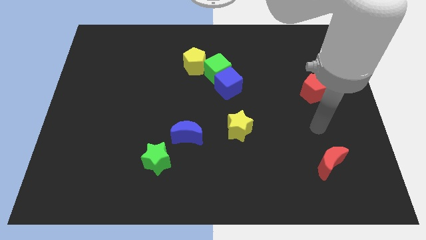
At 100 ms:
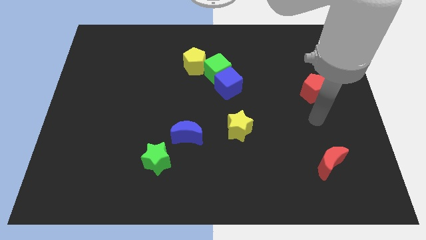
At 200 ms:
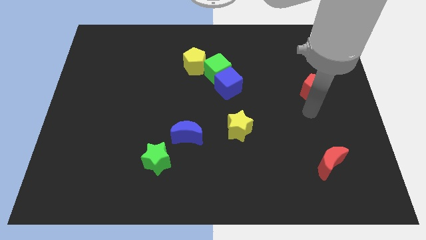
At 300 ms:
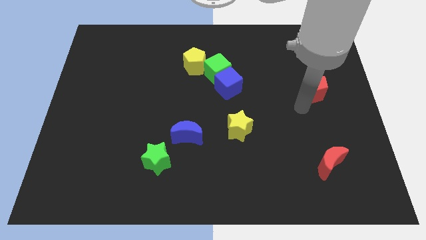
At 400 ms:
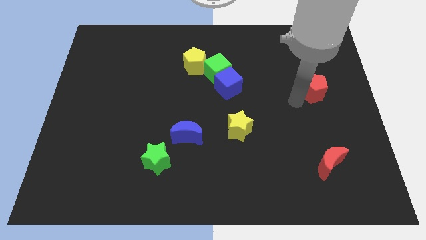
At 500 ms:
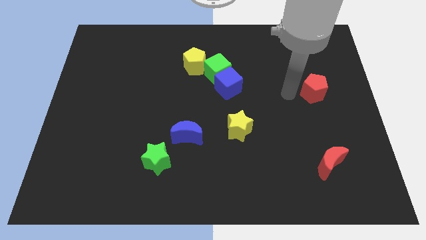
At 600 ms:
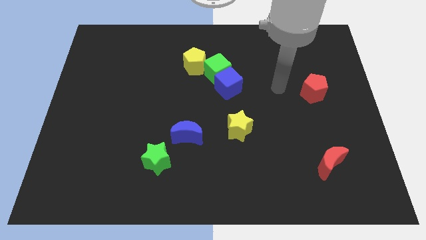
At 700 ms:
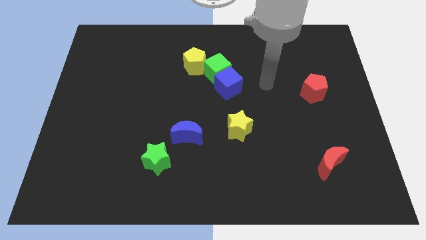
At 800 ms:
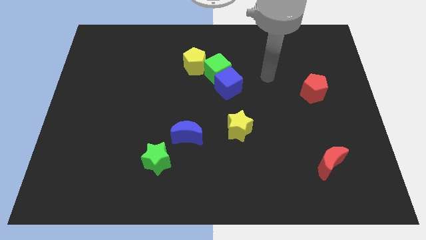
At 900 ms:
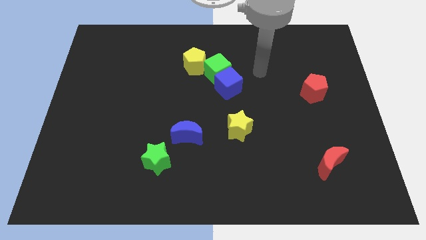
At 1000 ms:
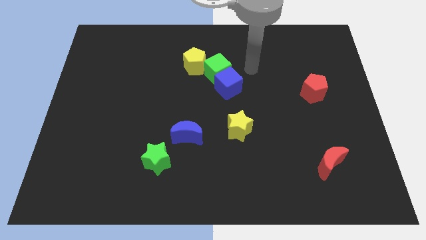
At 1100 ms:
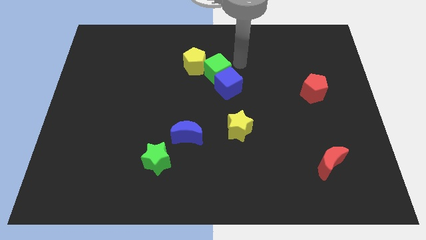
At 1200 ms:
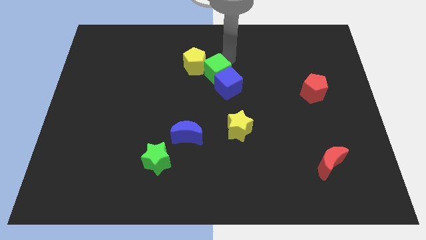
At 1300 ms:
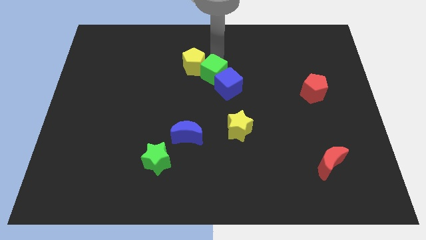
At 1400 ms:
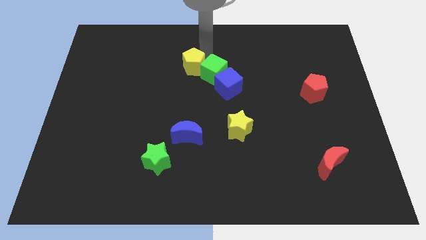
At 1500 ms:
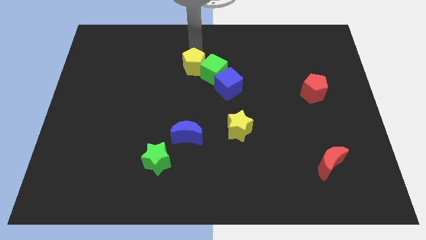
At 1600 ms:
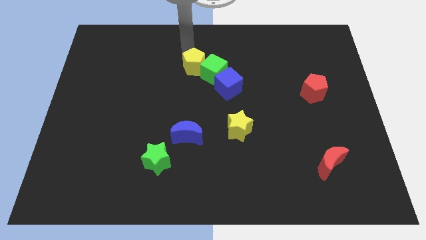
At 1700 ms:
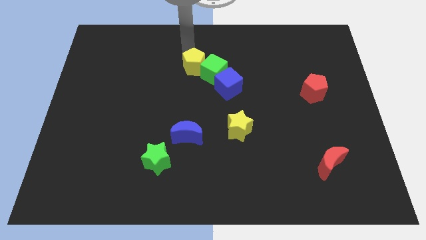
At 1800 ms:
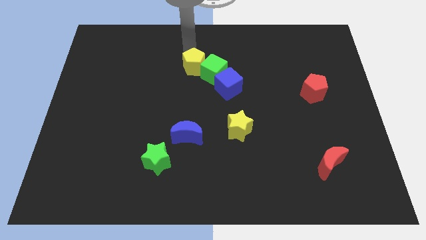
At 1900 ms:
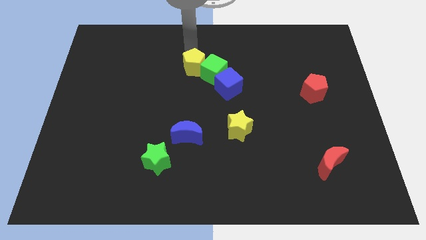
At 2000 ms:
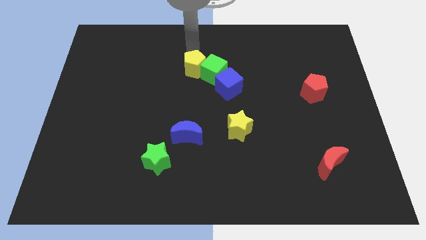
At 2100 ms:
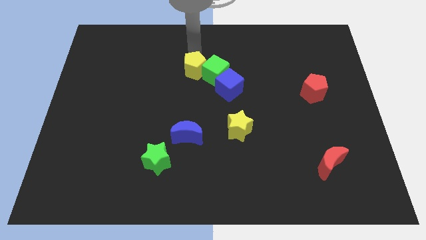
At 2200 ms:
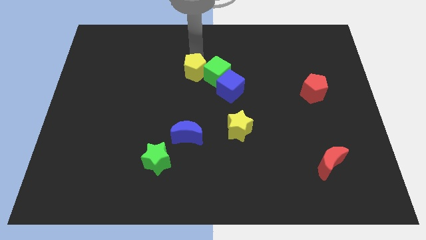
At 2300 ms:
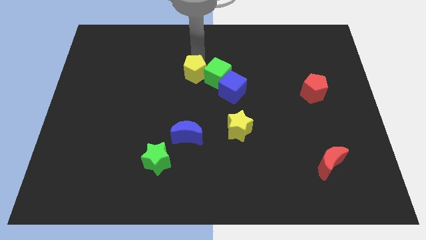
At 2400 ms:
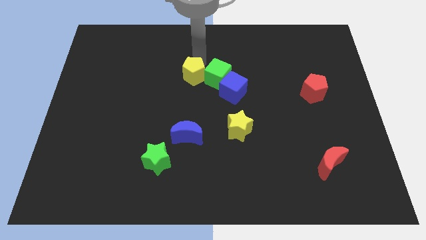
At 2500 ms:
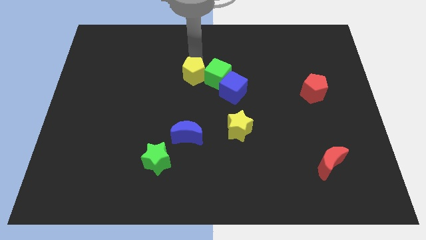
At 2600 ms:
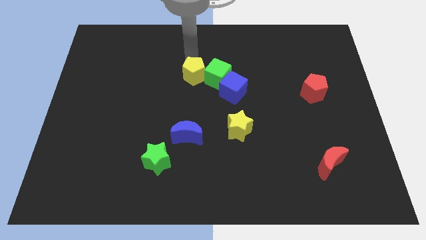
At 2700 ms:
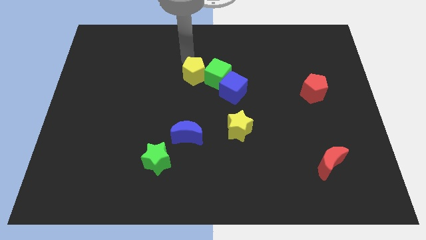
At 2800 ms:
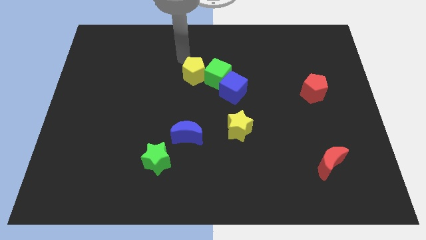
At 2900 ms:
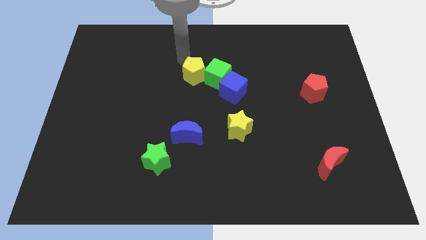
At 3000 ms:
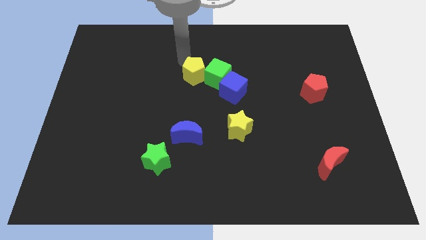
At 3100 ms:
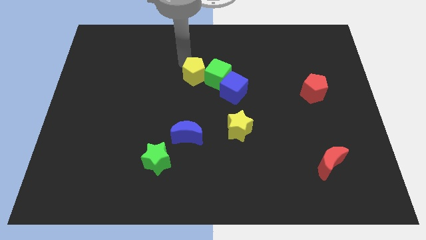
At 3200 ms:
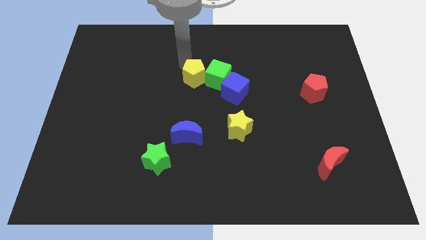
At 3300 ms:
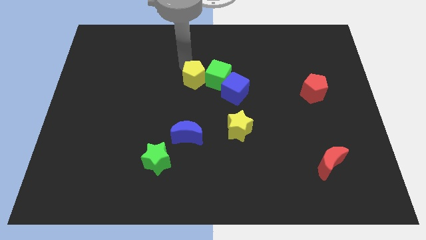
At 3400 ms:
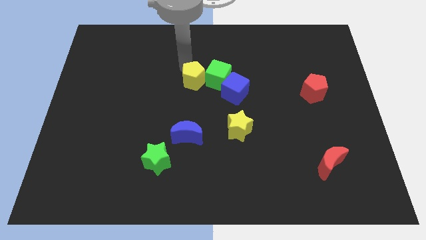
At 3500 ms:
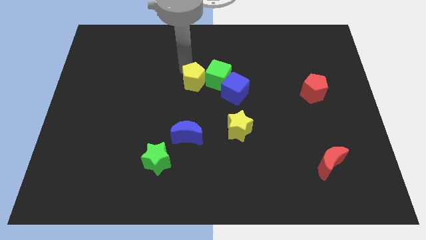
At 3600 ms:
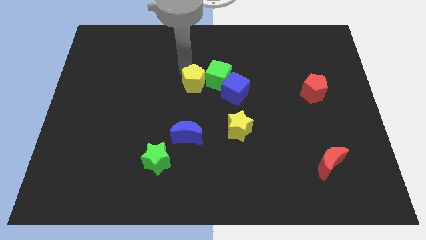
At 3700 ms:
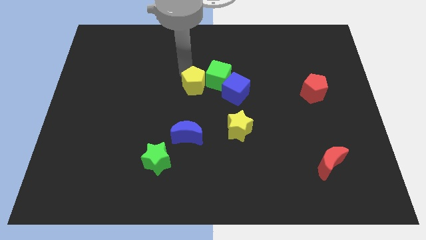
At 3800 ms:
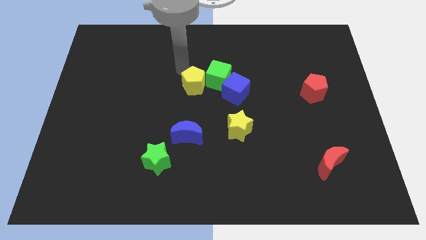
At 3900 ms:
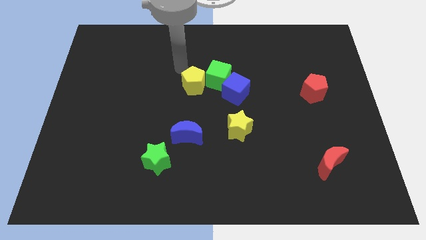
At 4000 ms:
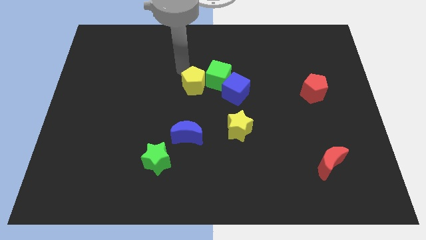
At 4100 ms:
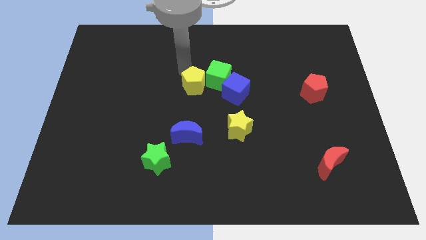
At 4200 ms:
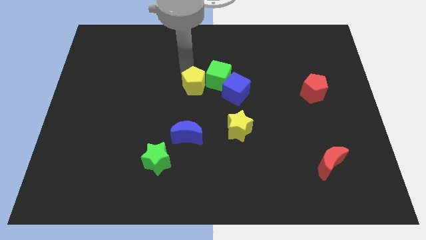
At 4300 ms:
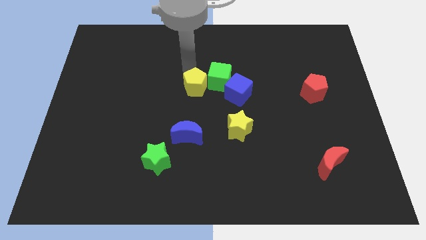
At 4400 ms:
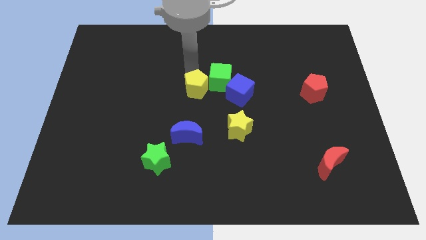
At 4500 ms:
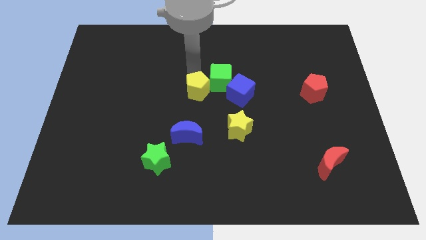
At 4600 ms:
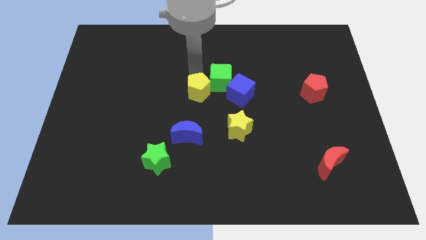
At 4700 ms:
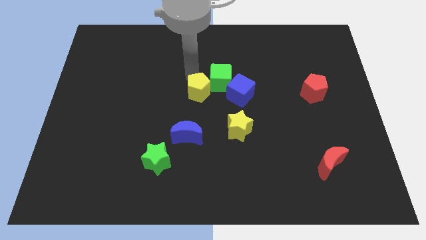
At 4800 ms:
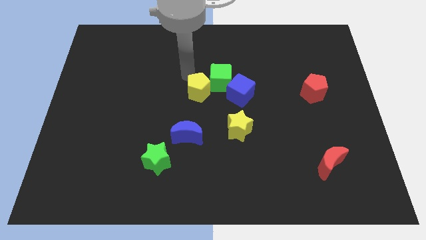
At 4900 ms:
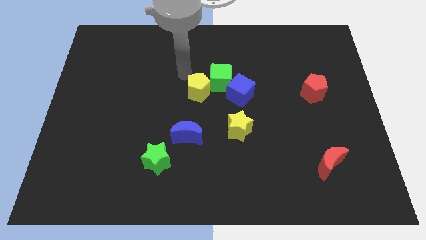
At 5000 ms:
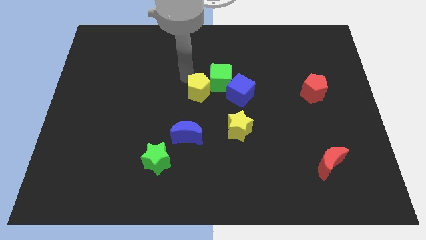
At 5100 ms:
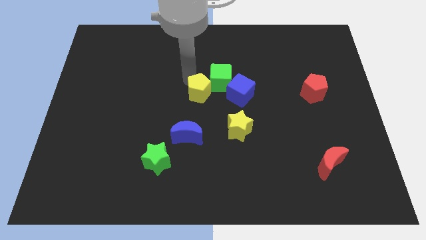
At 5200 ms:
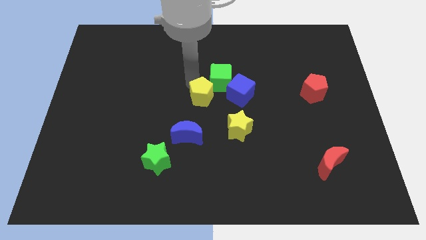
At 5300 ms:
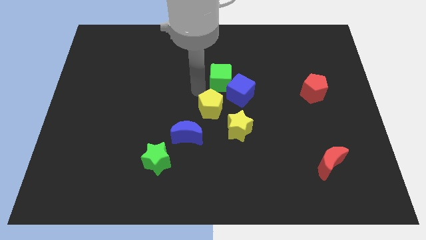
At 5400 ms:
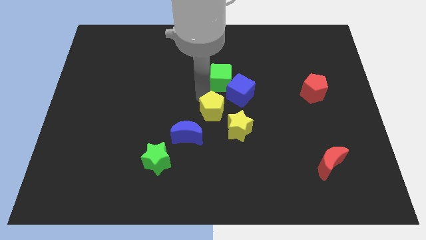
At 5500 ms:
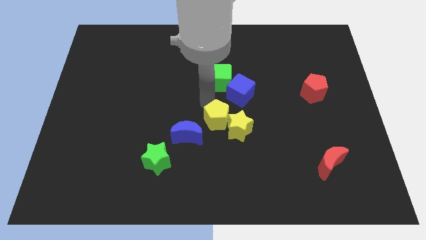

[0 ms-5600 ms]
put the yellow pentagon towards the yellow star
